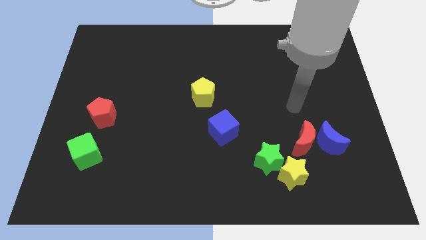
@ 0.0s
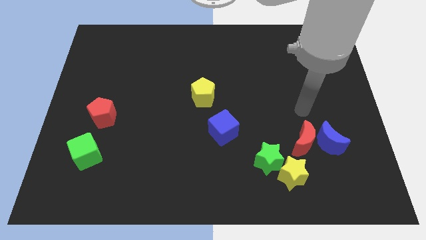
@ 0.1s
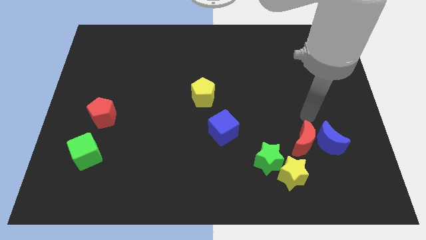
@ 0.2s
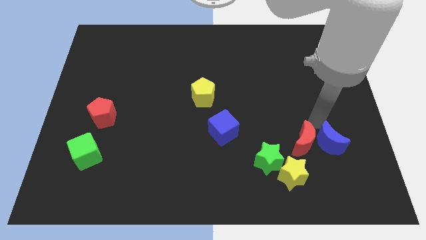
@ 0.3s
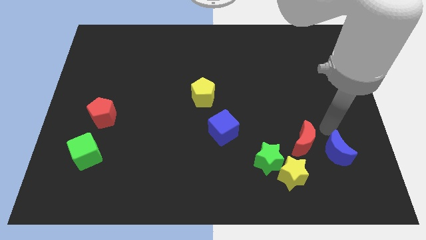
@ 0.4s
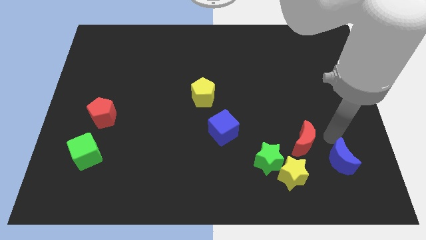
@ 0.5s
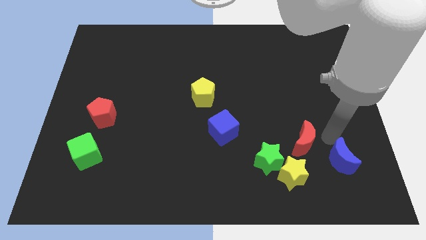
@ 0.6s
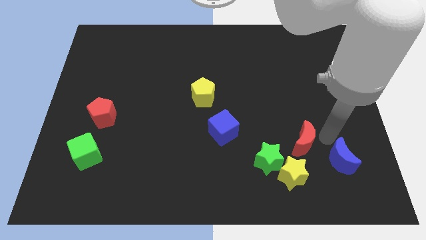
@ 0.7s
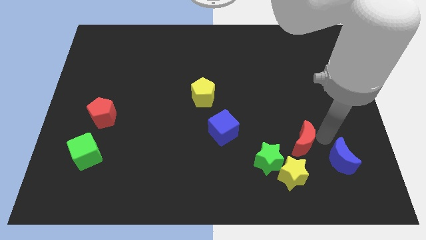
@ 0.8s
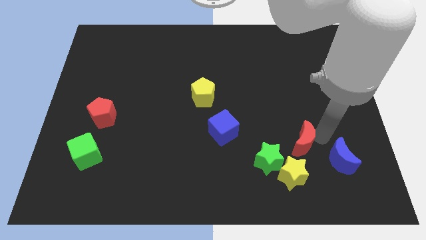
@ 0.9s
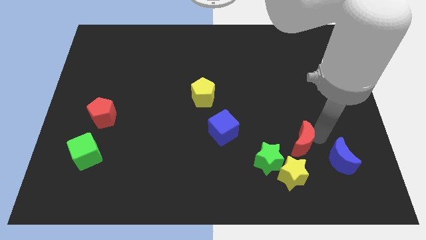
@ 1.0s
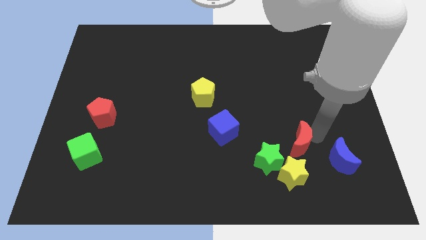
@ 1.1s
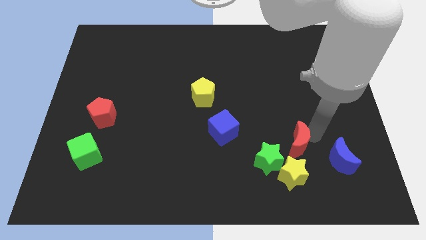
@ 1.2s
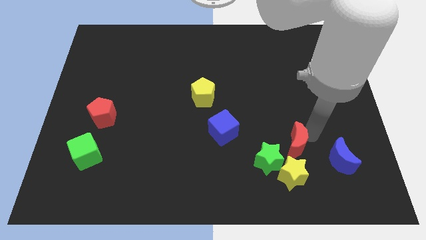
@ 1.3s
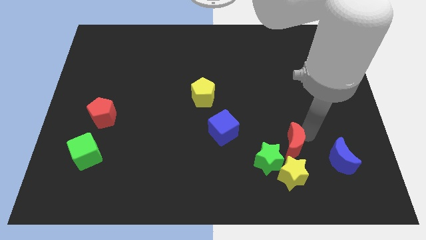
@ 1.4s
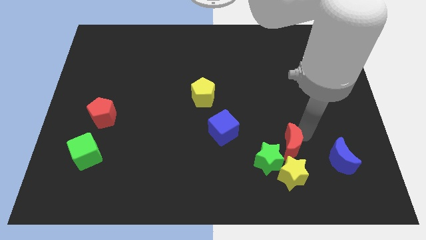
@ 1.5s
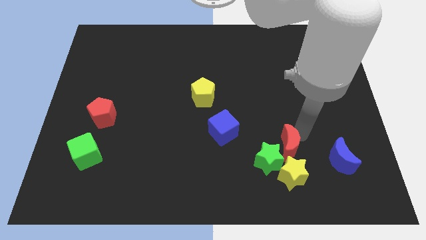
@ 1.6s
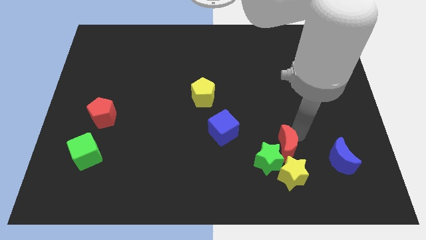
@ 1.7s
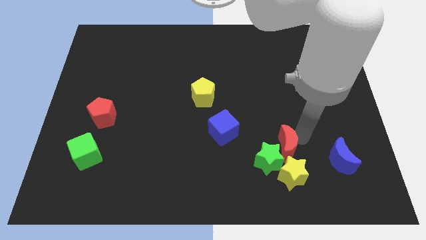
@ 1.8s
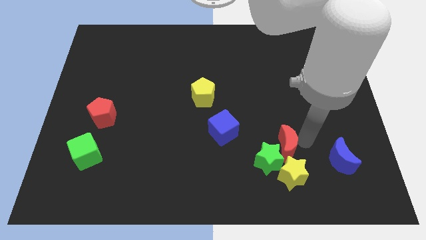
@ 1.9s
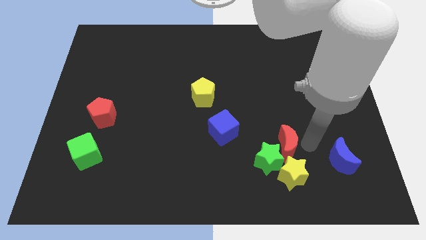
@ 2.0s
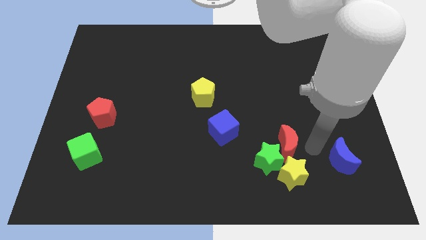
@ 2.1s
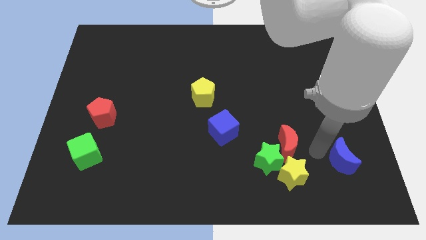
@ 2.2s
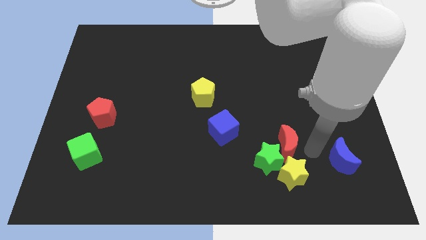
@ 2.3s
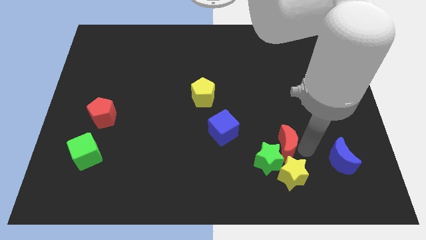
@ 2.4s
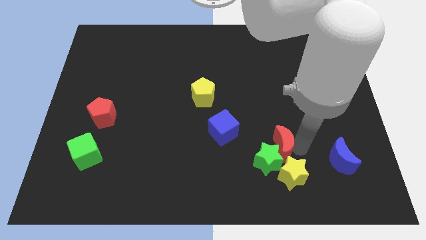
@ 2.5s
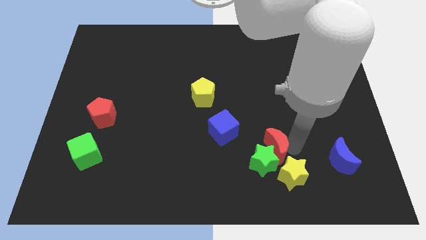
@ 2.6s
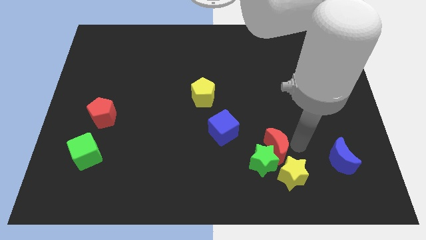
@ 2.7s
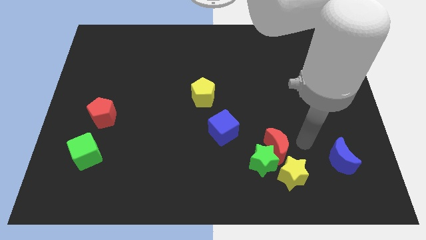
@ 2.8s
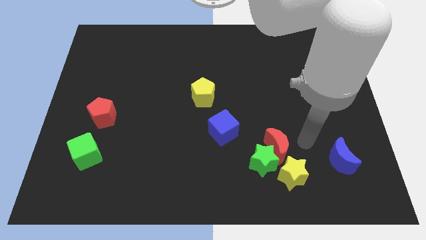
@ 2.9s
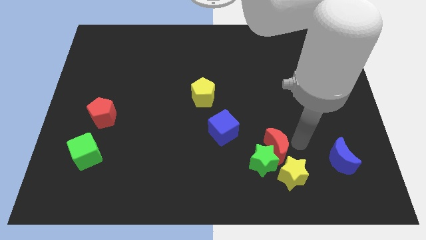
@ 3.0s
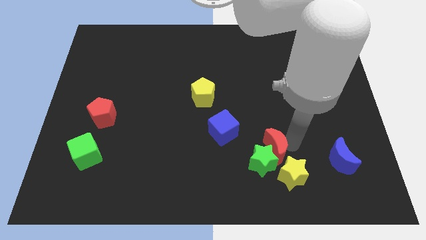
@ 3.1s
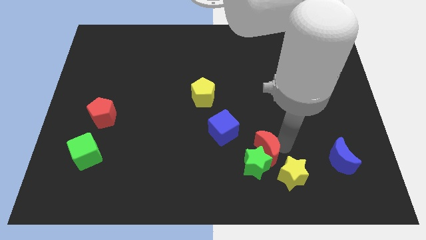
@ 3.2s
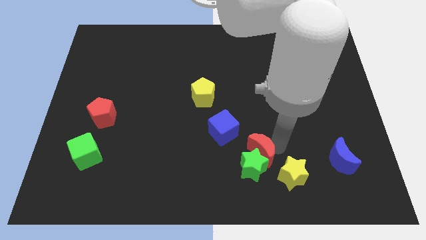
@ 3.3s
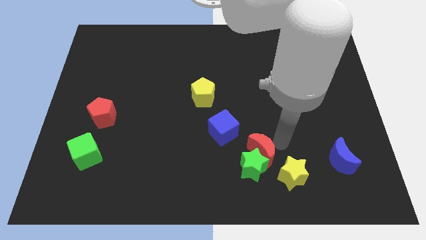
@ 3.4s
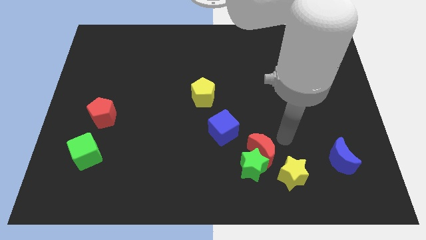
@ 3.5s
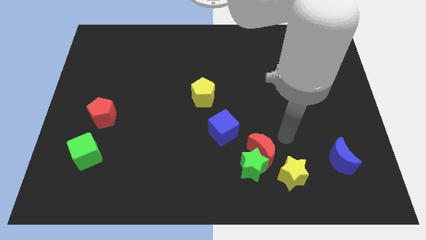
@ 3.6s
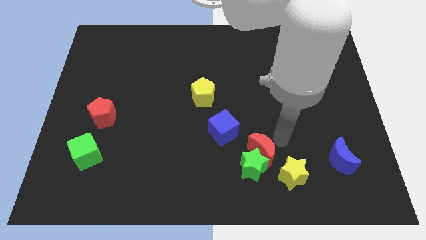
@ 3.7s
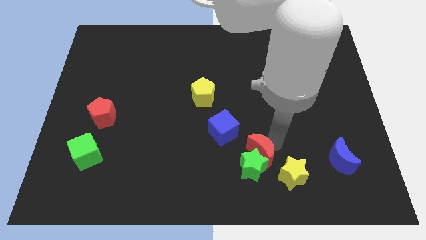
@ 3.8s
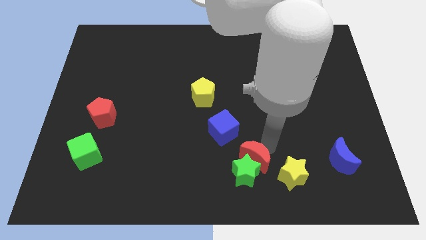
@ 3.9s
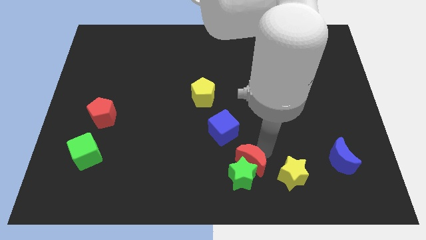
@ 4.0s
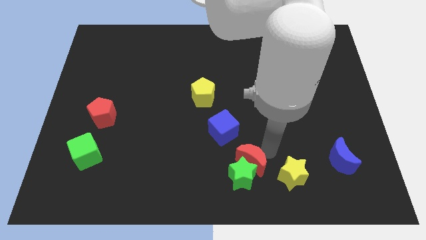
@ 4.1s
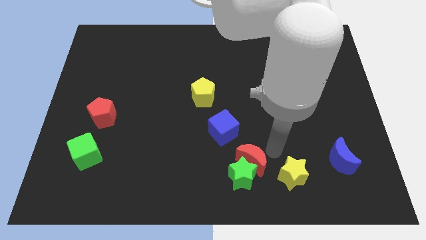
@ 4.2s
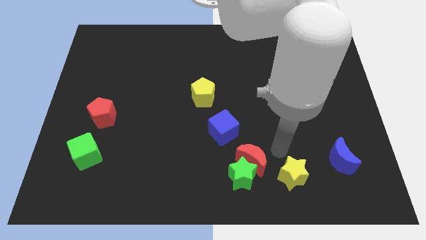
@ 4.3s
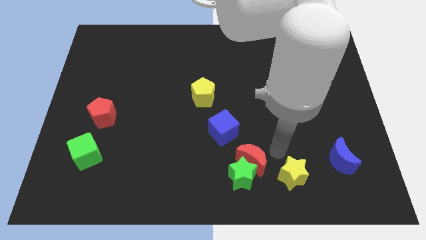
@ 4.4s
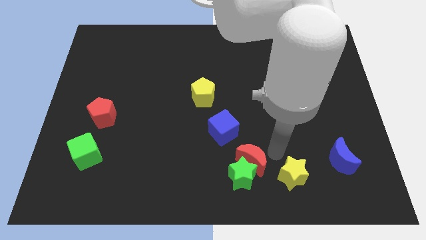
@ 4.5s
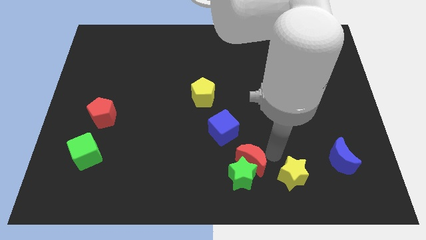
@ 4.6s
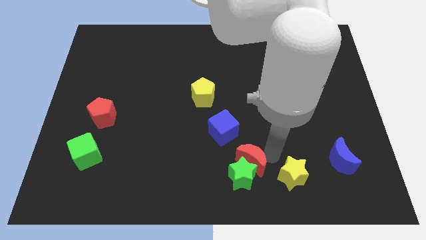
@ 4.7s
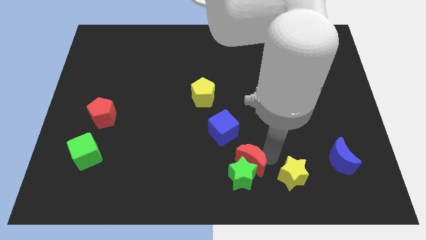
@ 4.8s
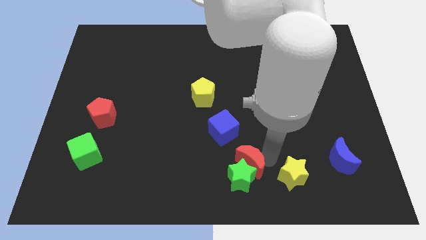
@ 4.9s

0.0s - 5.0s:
push the red moon to the bottom side
